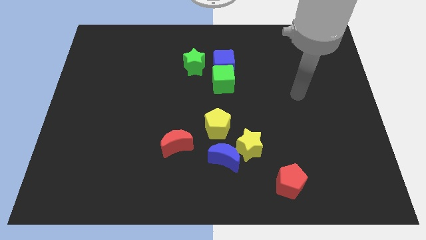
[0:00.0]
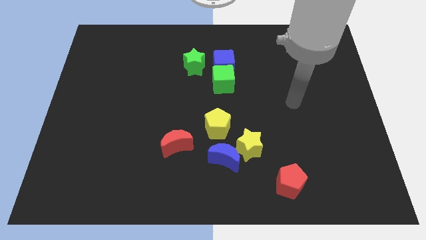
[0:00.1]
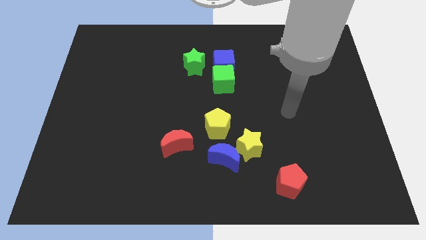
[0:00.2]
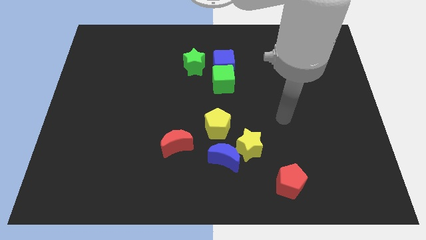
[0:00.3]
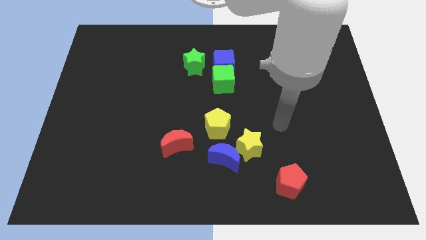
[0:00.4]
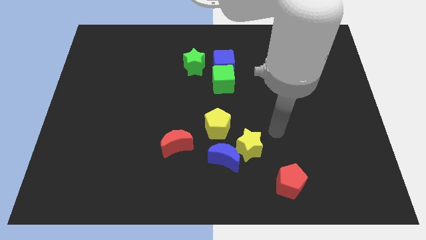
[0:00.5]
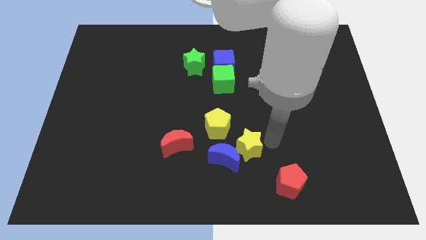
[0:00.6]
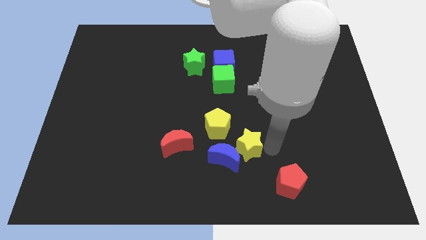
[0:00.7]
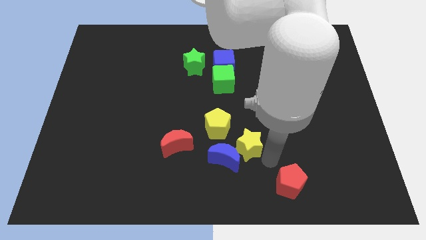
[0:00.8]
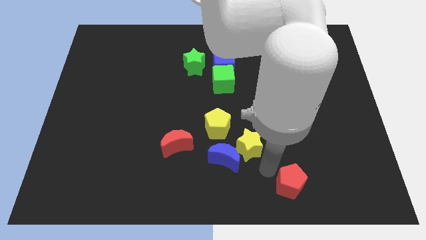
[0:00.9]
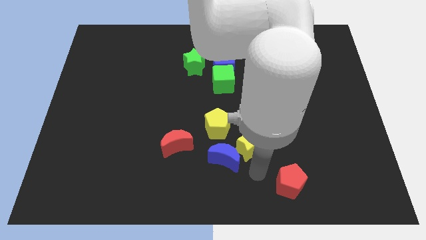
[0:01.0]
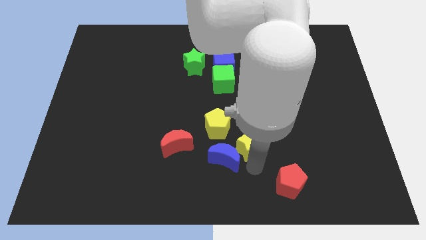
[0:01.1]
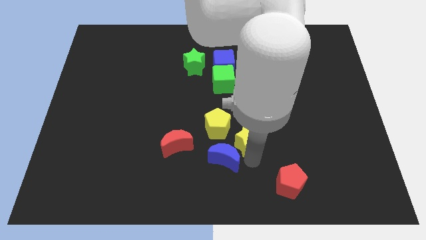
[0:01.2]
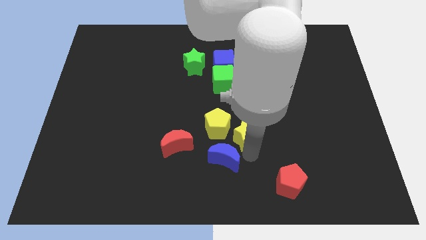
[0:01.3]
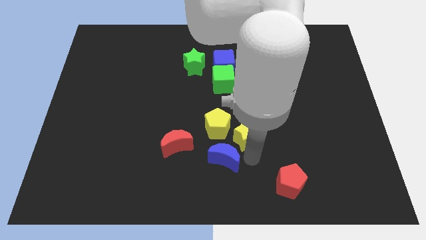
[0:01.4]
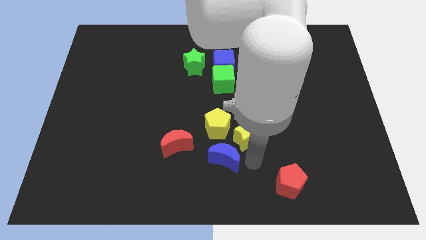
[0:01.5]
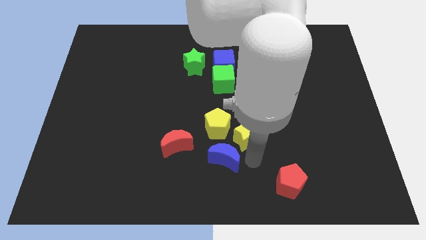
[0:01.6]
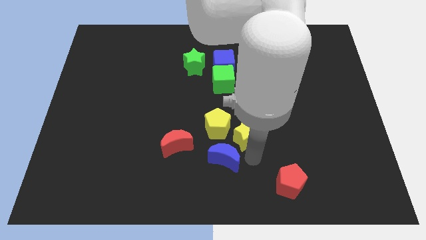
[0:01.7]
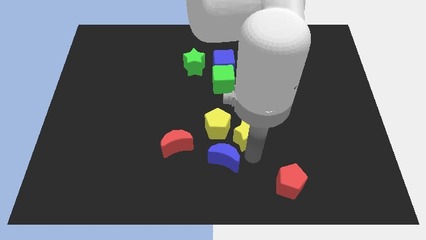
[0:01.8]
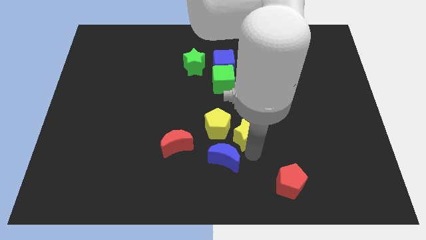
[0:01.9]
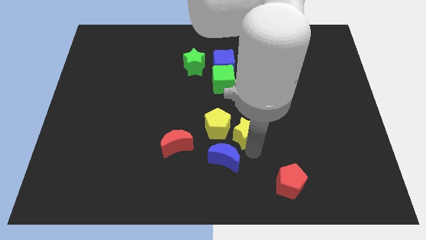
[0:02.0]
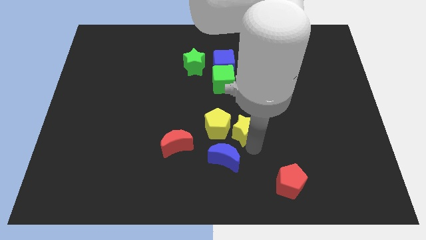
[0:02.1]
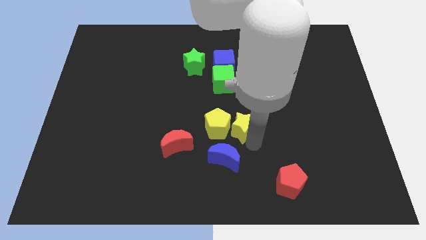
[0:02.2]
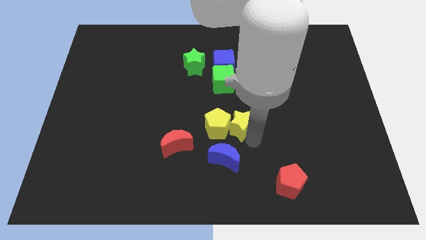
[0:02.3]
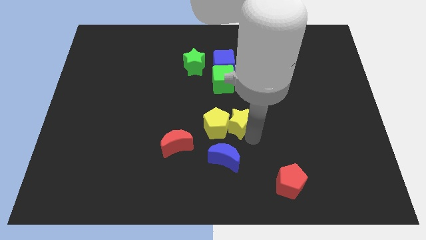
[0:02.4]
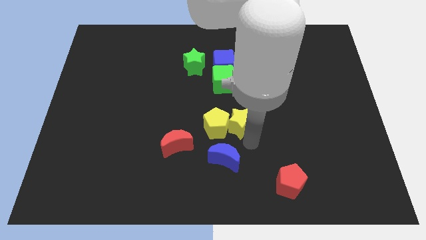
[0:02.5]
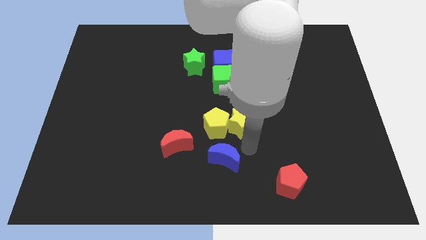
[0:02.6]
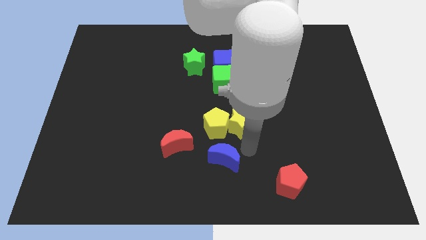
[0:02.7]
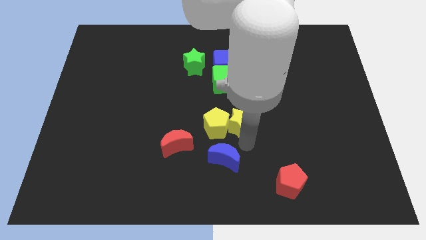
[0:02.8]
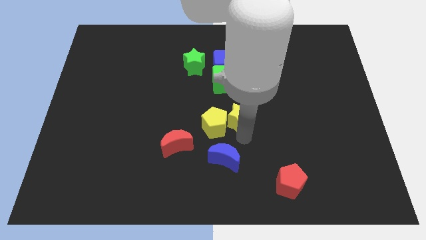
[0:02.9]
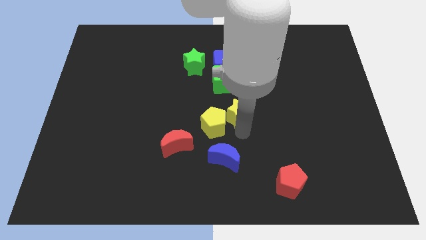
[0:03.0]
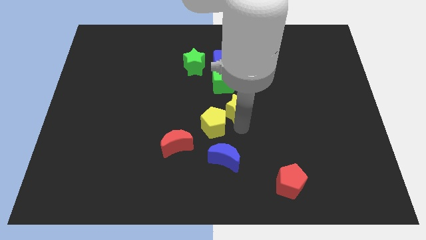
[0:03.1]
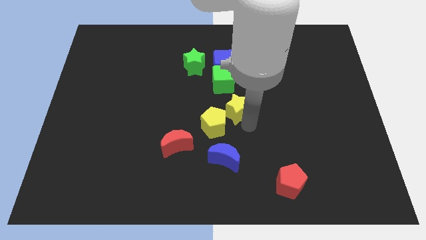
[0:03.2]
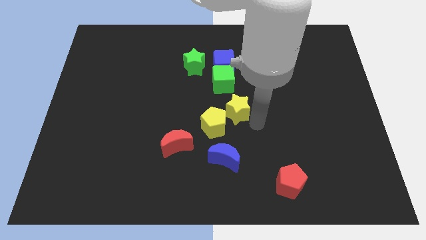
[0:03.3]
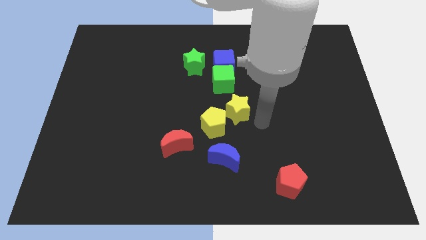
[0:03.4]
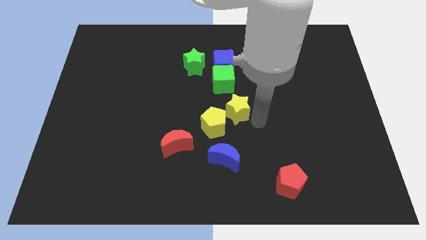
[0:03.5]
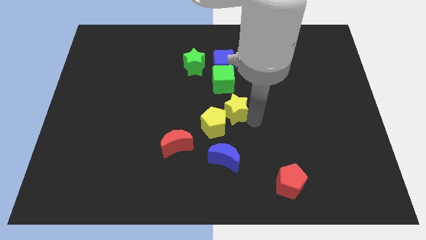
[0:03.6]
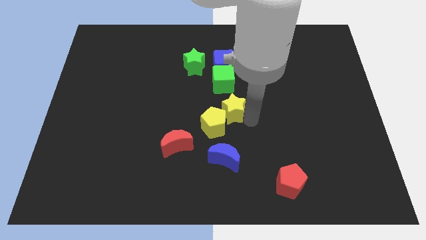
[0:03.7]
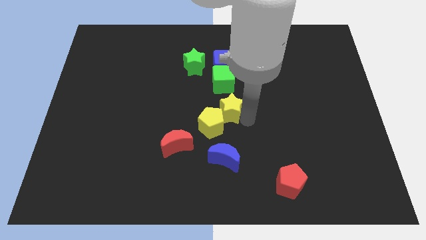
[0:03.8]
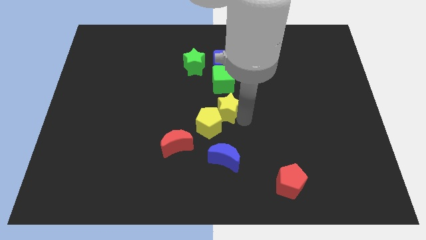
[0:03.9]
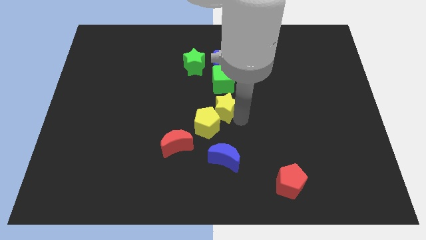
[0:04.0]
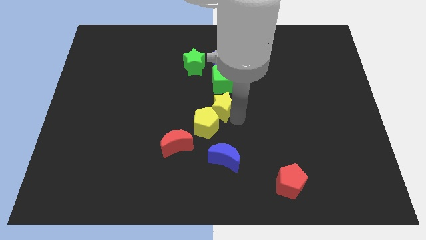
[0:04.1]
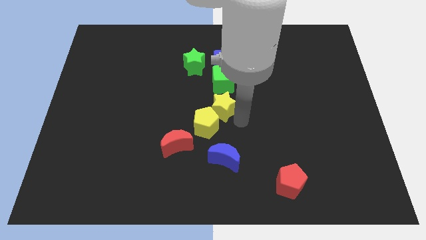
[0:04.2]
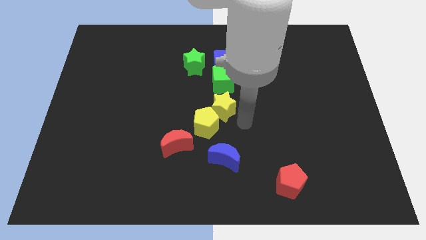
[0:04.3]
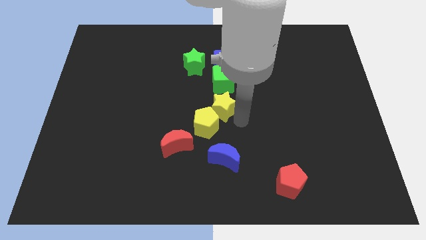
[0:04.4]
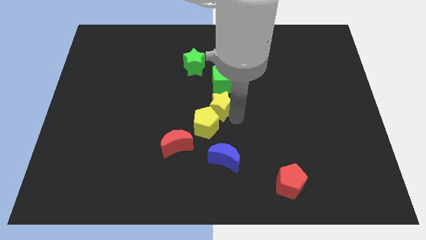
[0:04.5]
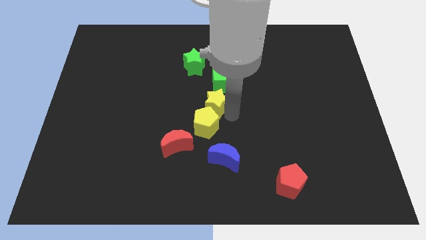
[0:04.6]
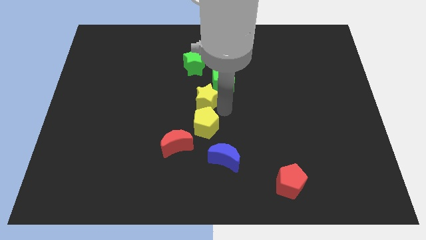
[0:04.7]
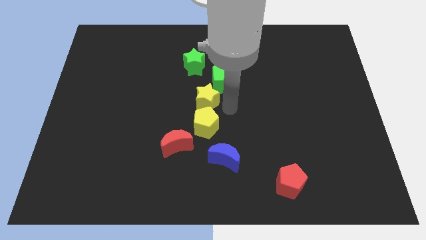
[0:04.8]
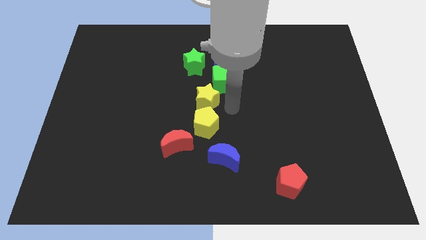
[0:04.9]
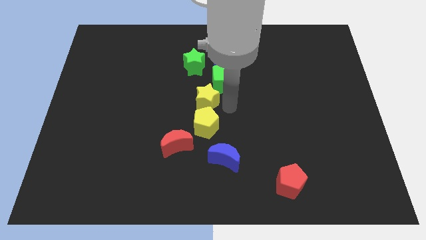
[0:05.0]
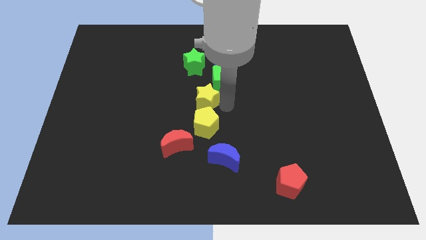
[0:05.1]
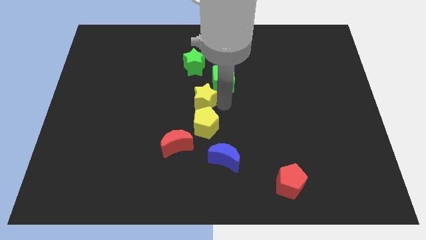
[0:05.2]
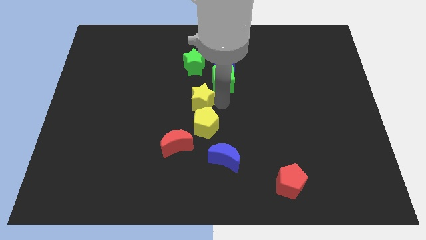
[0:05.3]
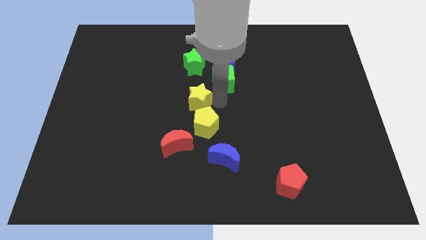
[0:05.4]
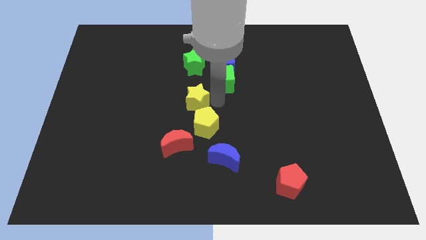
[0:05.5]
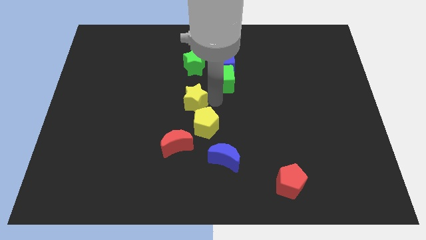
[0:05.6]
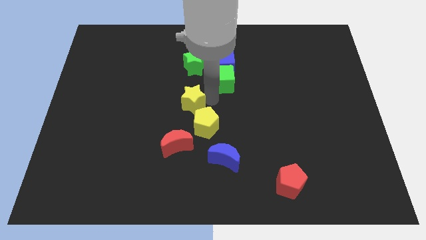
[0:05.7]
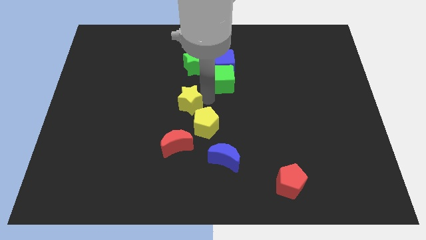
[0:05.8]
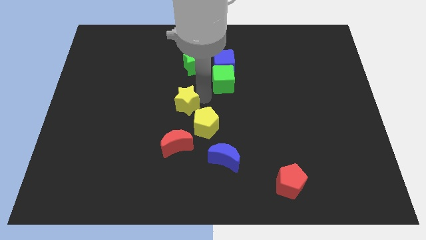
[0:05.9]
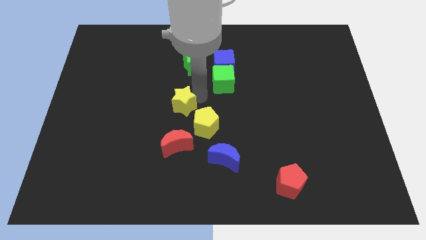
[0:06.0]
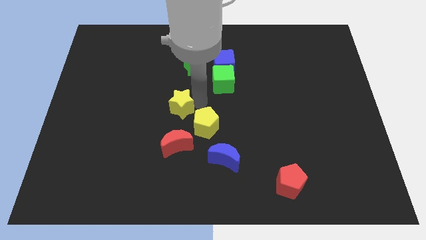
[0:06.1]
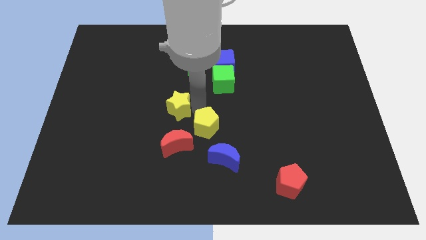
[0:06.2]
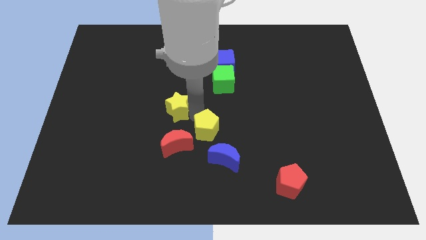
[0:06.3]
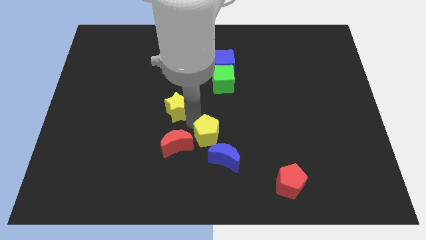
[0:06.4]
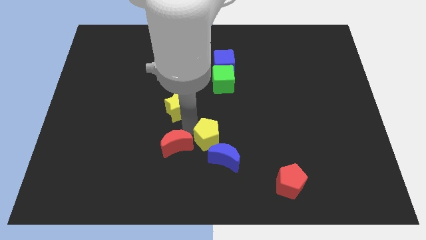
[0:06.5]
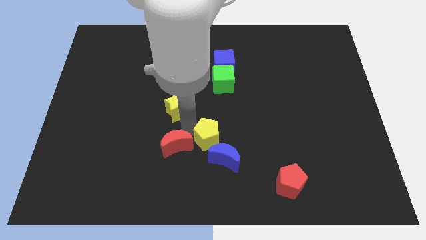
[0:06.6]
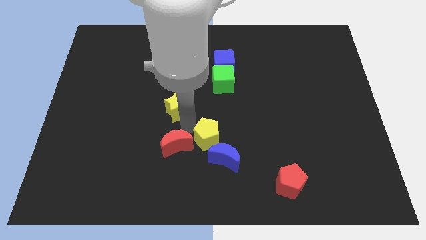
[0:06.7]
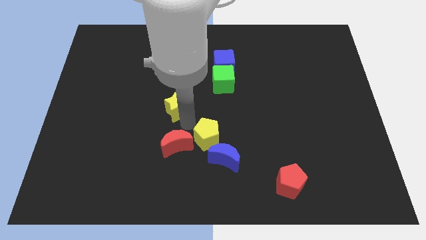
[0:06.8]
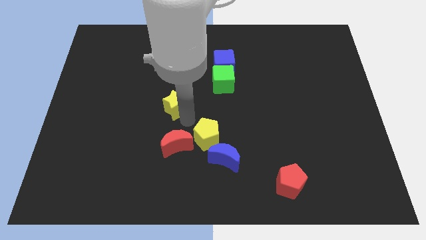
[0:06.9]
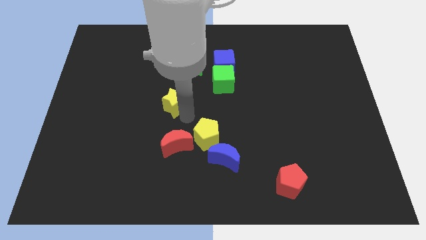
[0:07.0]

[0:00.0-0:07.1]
slide the yellow star up and to the left diagonally

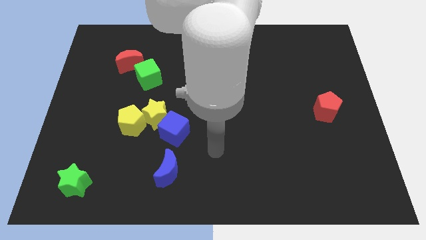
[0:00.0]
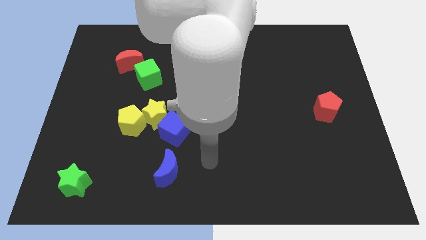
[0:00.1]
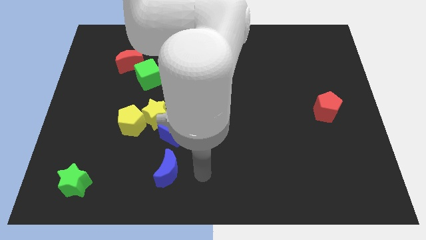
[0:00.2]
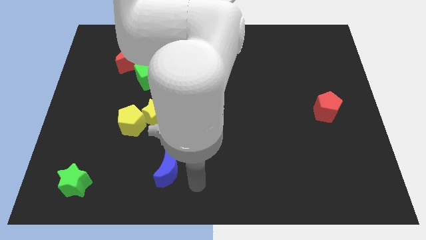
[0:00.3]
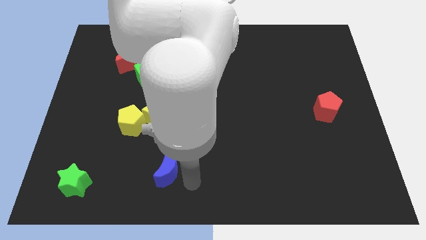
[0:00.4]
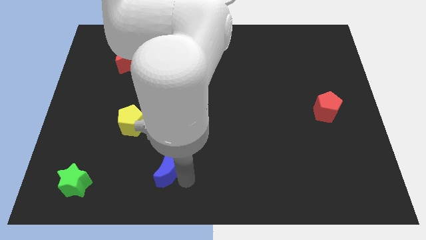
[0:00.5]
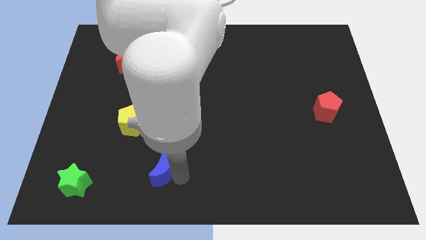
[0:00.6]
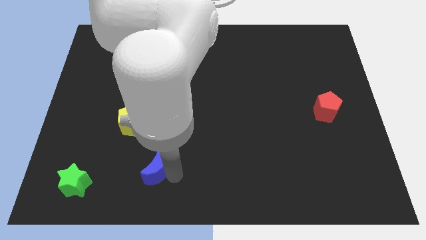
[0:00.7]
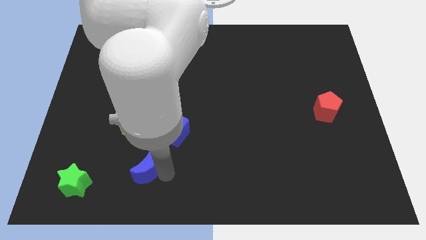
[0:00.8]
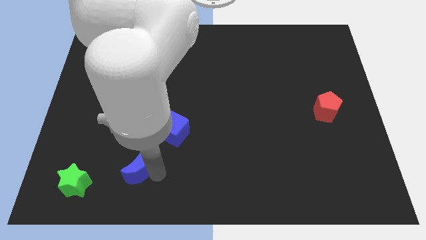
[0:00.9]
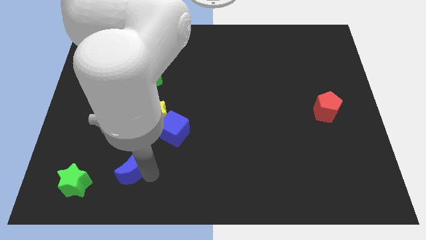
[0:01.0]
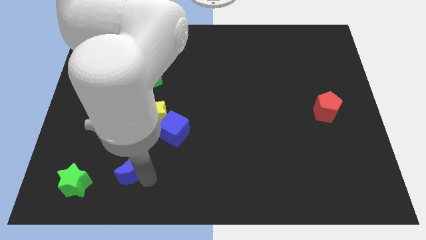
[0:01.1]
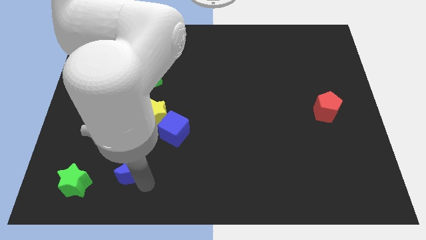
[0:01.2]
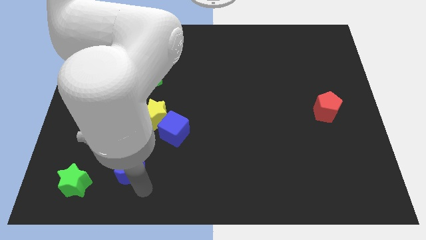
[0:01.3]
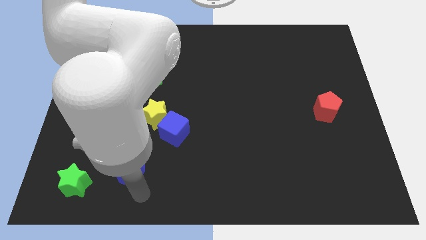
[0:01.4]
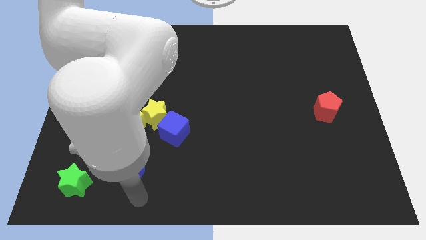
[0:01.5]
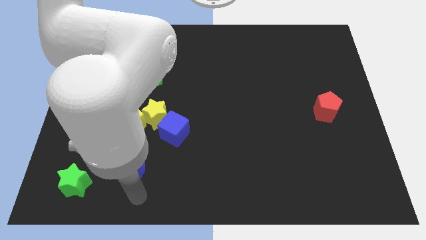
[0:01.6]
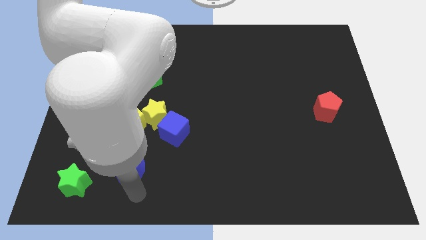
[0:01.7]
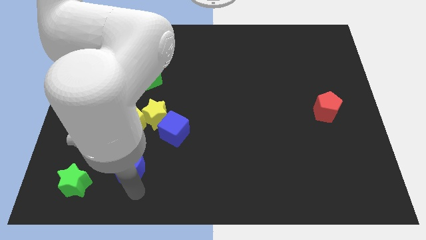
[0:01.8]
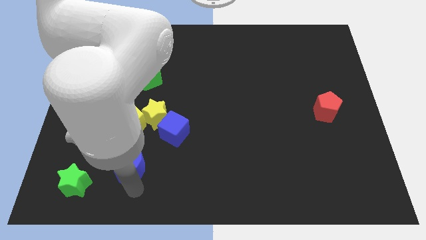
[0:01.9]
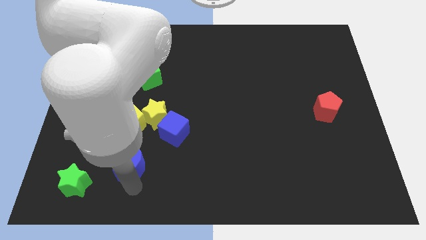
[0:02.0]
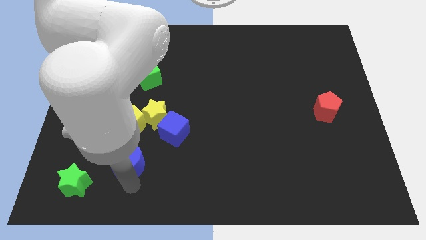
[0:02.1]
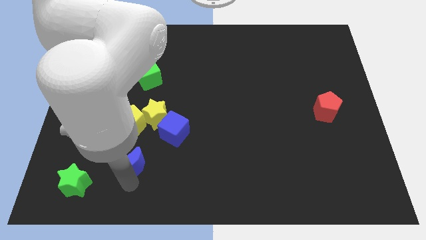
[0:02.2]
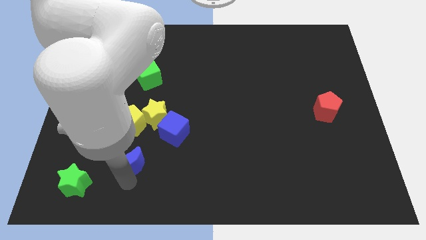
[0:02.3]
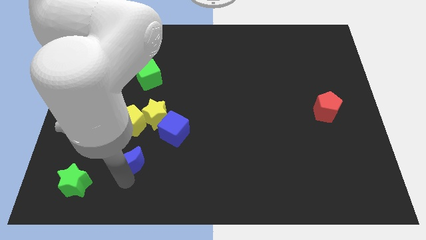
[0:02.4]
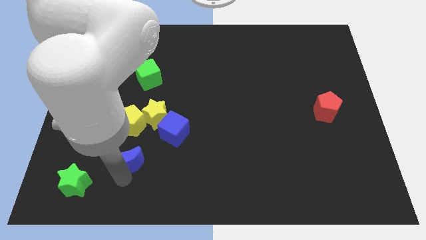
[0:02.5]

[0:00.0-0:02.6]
move the blue moon a little bit diagonally up and left
